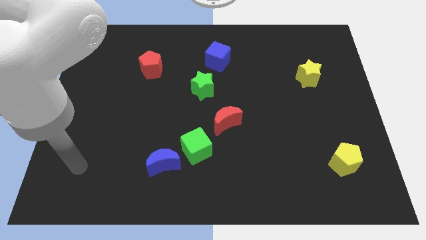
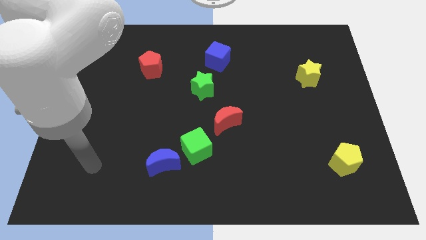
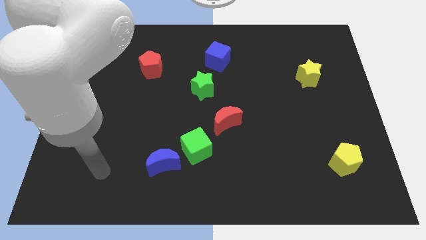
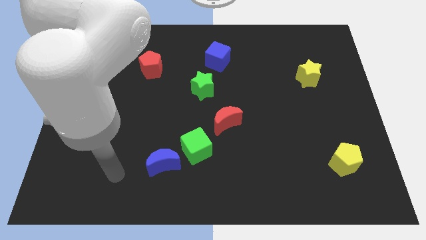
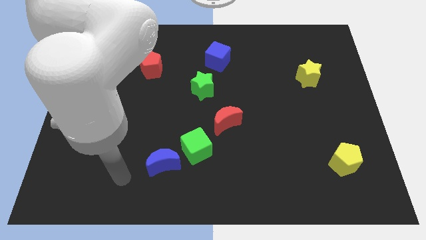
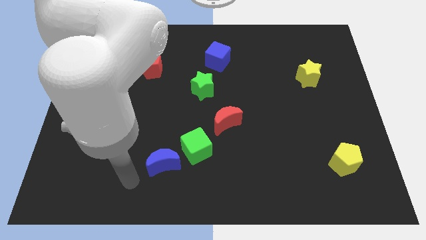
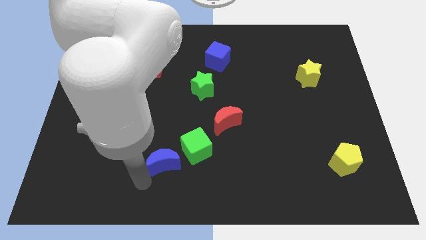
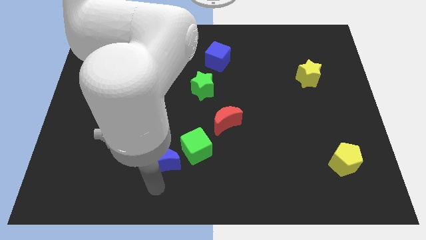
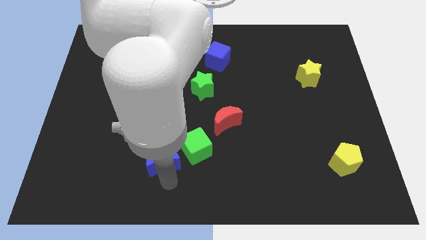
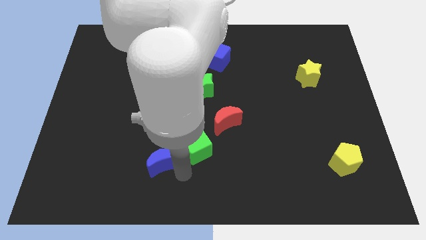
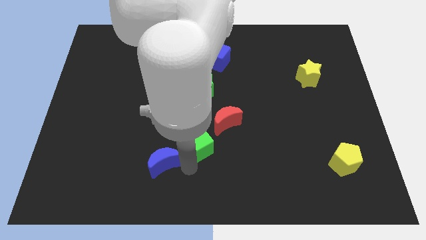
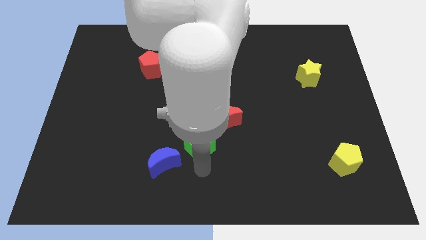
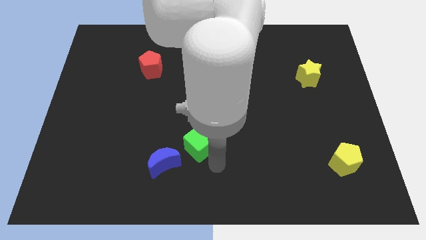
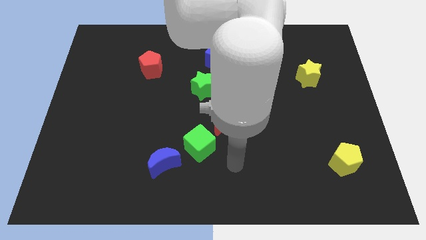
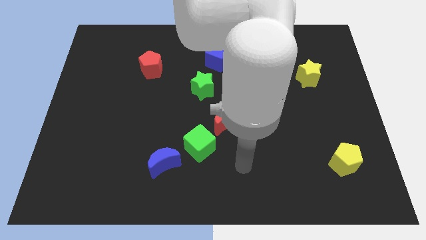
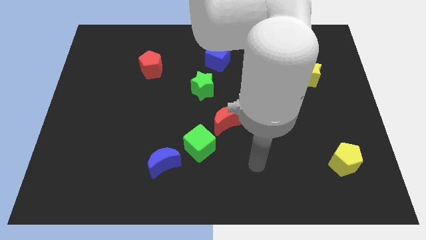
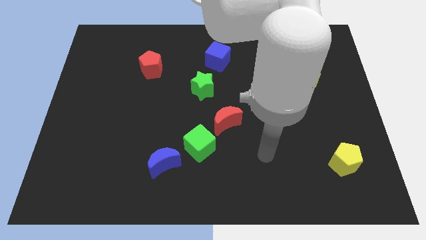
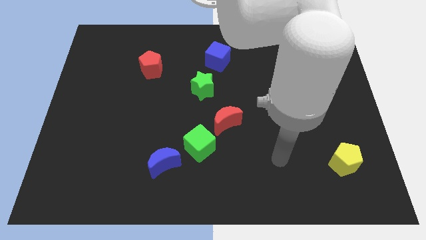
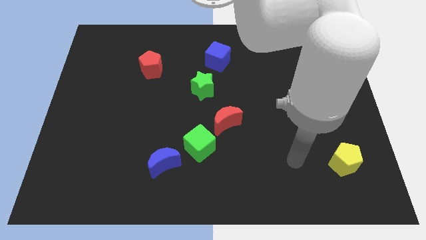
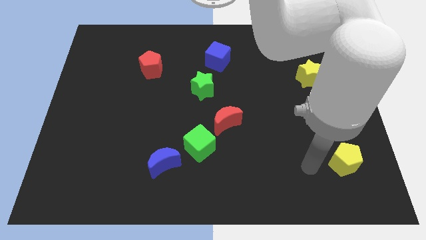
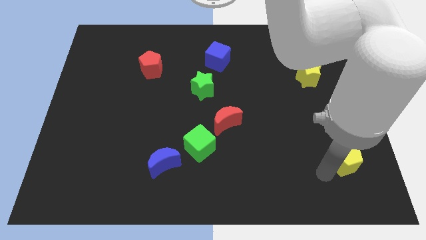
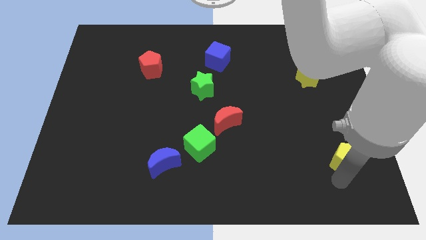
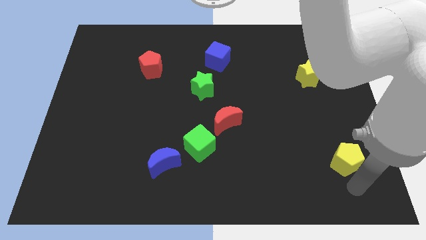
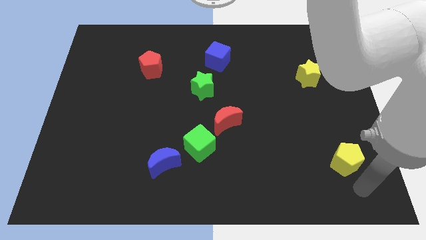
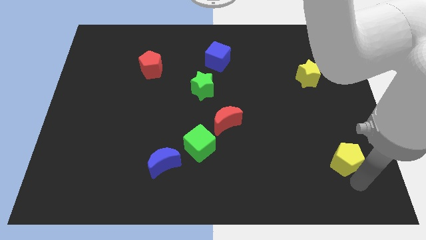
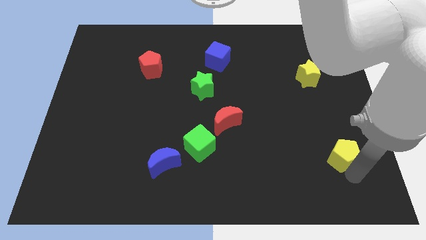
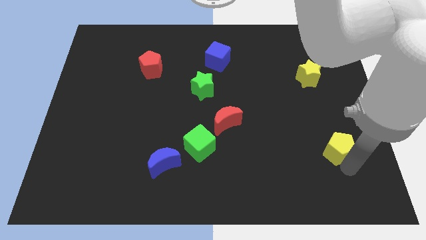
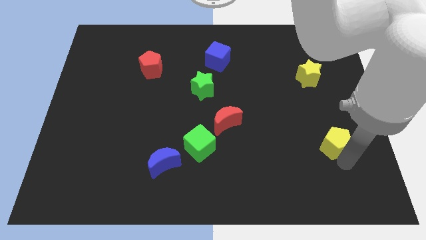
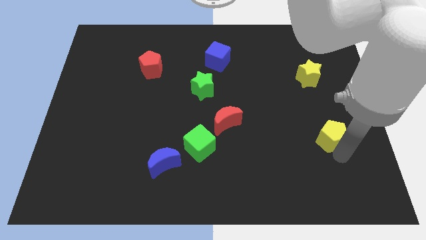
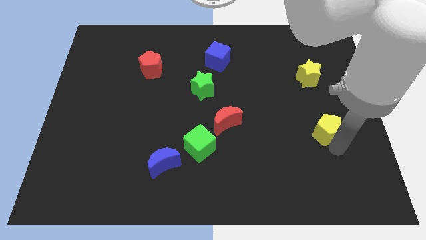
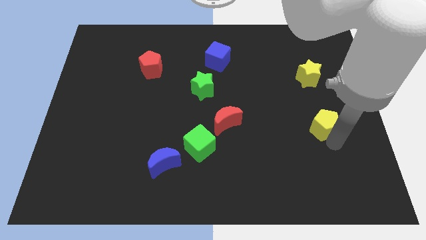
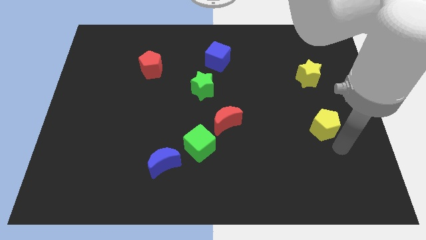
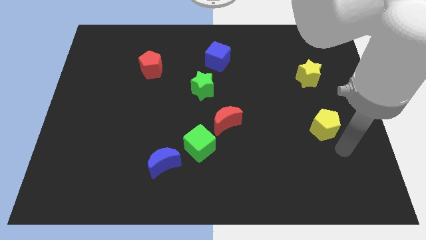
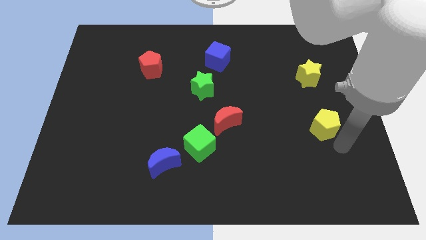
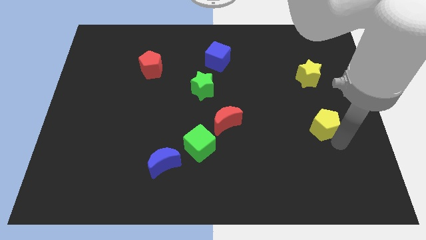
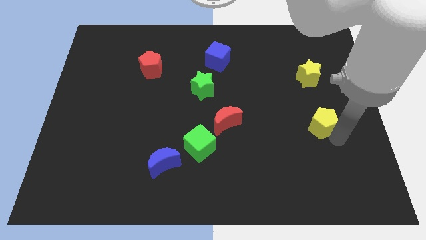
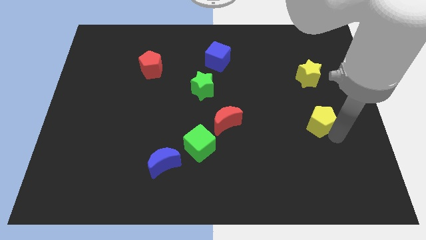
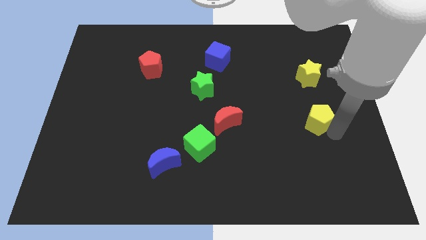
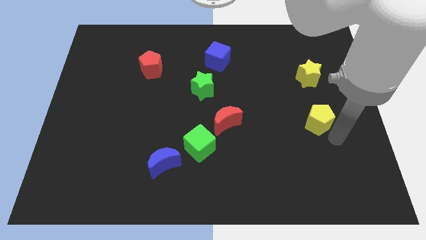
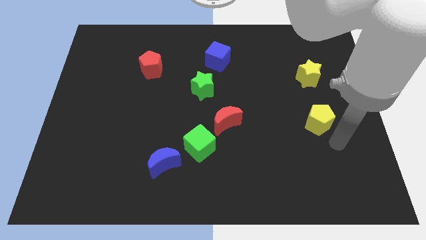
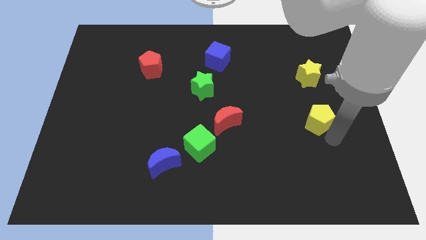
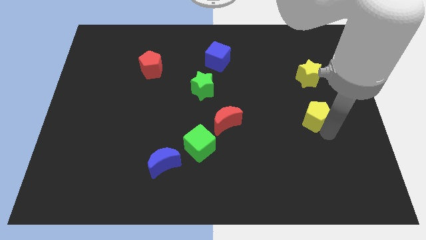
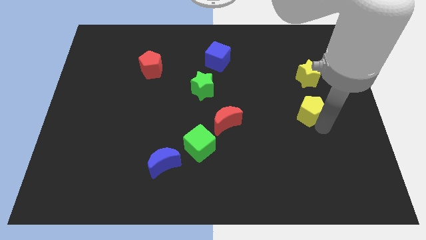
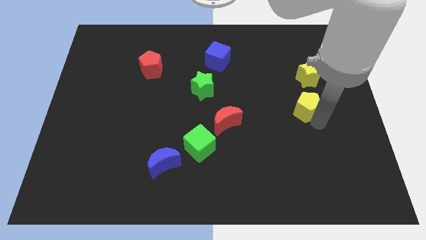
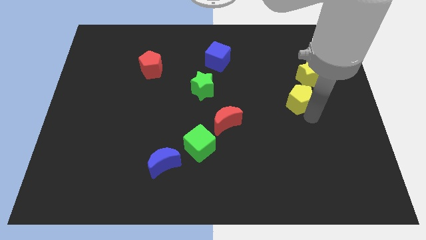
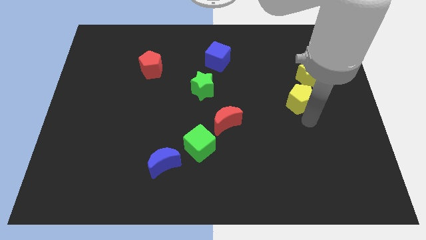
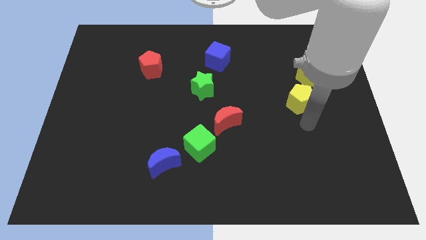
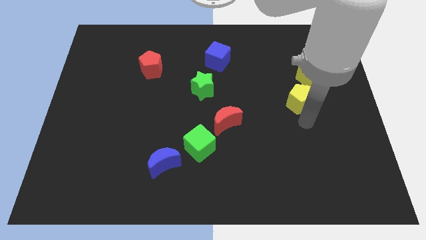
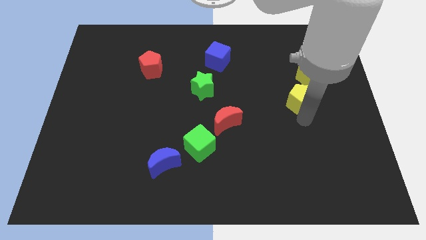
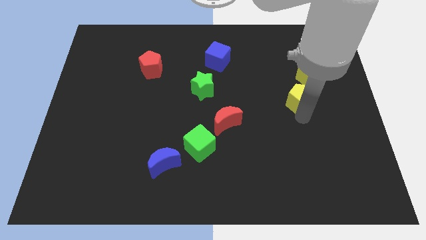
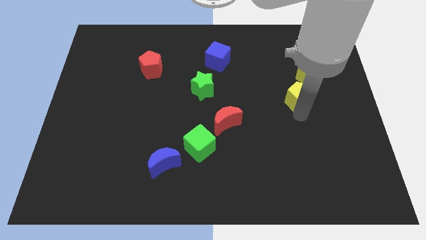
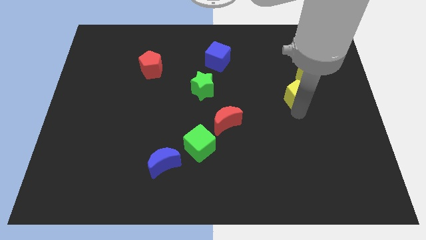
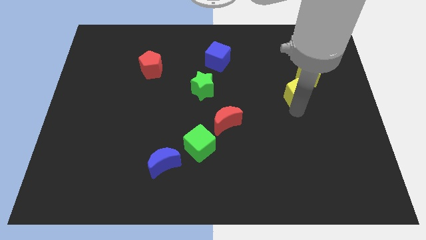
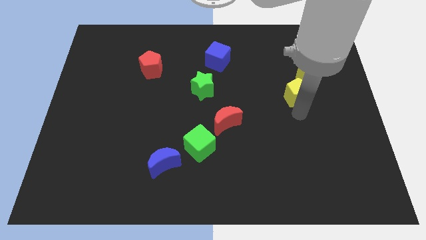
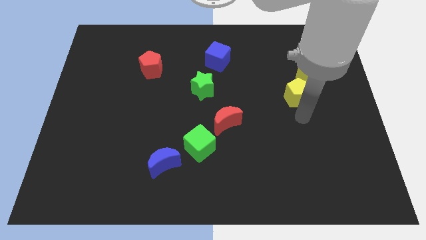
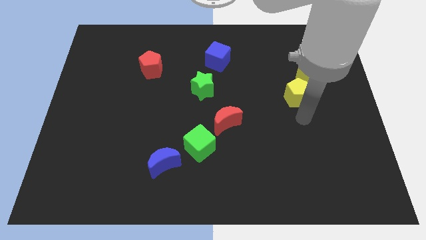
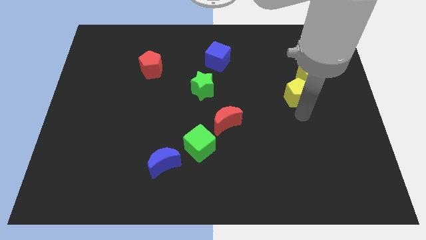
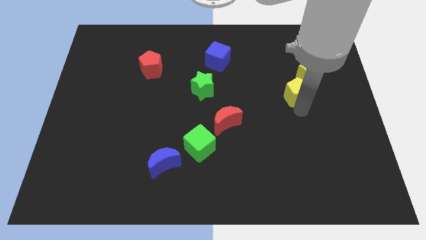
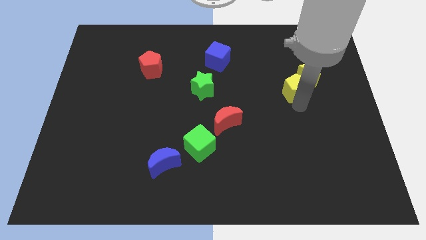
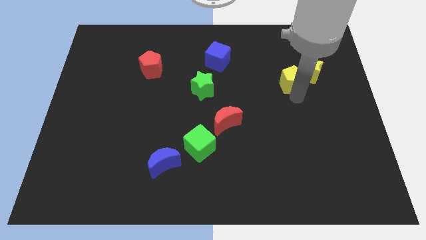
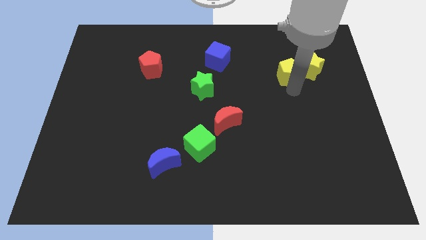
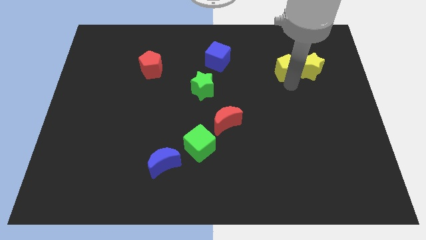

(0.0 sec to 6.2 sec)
push the yellow pentagon diagonally up and to the left of the yellow star
